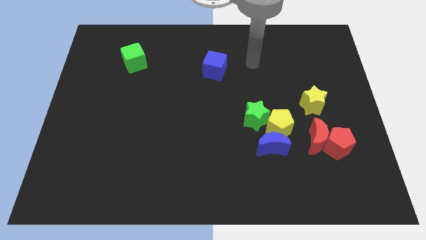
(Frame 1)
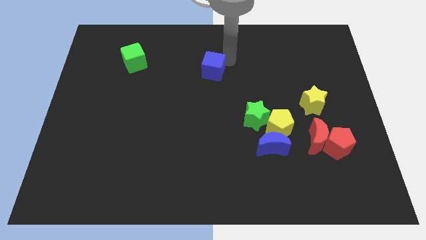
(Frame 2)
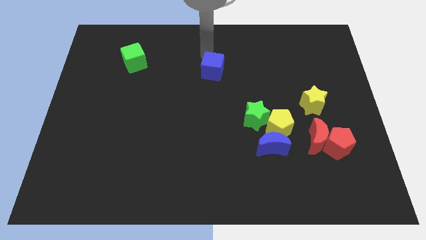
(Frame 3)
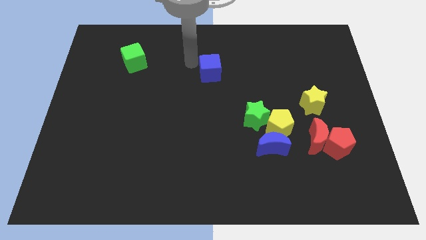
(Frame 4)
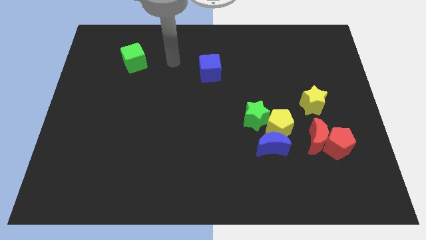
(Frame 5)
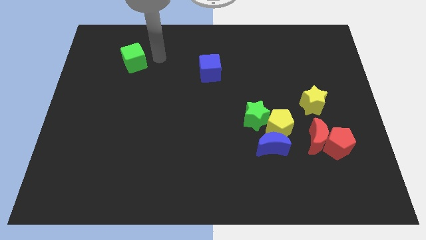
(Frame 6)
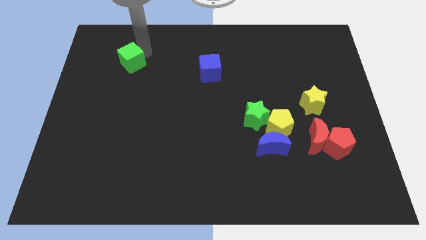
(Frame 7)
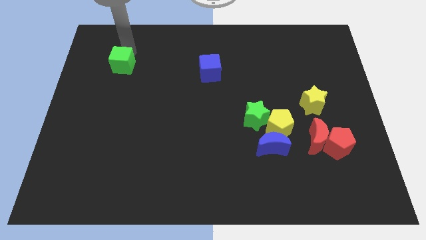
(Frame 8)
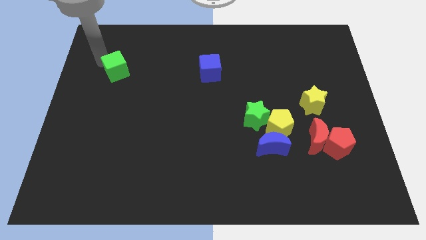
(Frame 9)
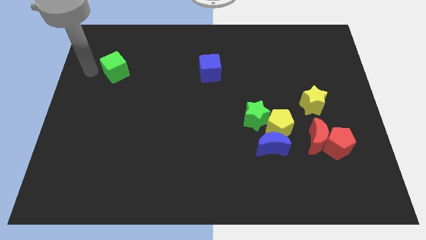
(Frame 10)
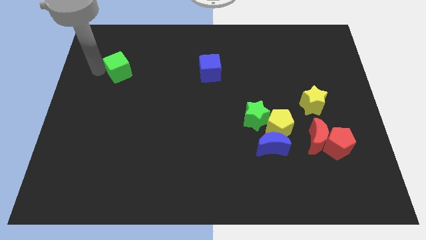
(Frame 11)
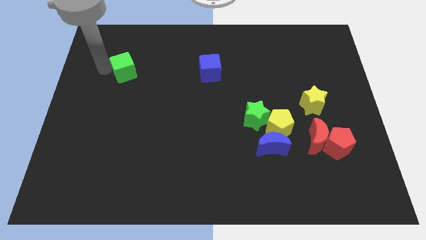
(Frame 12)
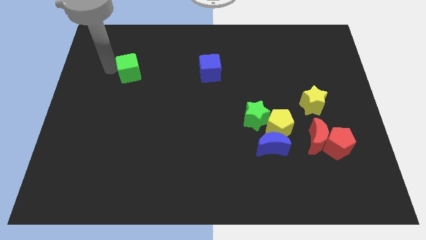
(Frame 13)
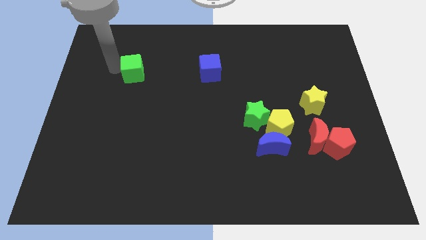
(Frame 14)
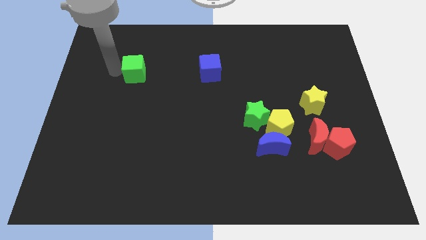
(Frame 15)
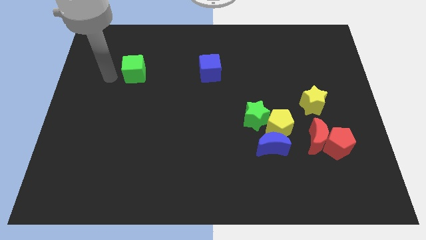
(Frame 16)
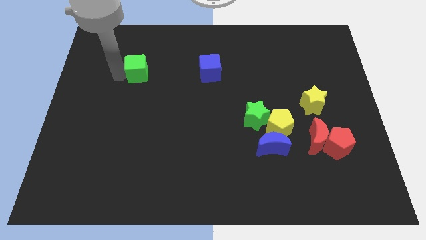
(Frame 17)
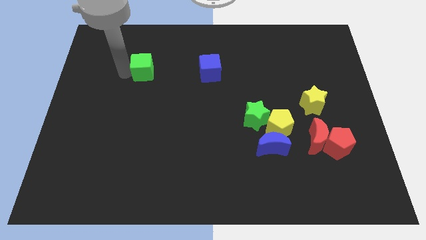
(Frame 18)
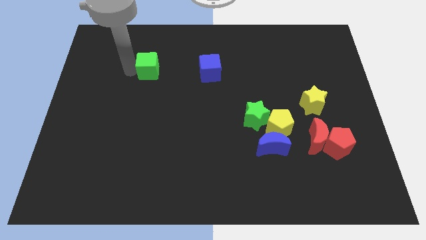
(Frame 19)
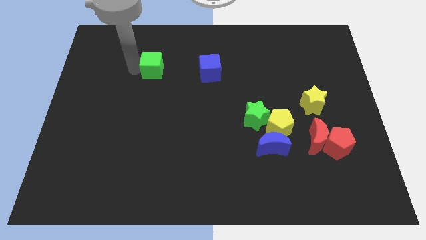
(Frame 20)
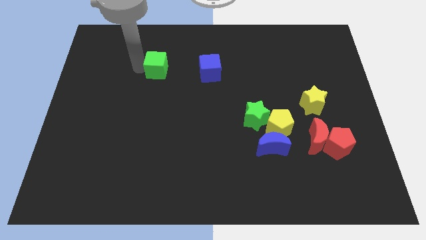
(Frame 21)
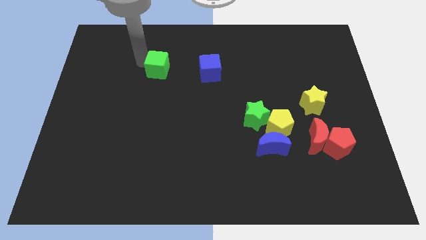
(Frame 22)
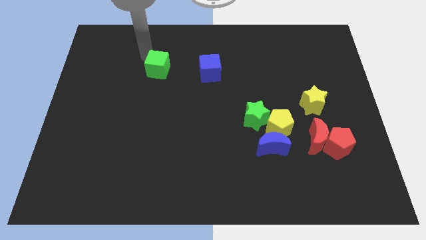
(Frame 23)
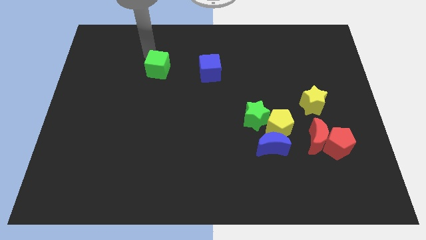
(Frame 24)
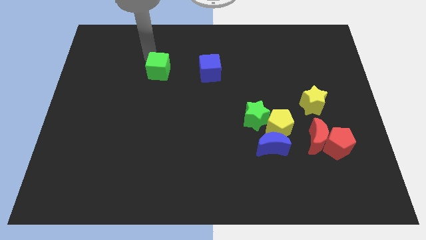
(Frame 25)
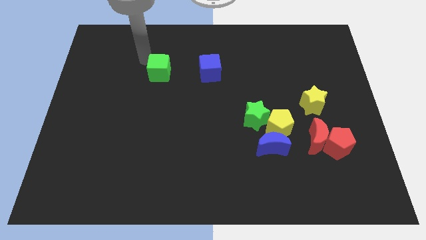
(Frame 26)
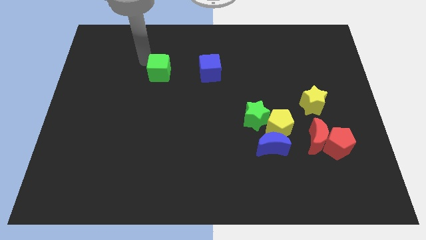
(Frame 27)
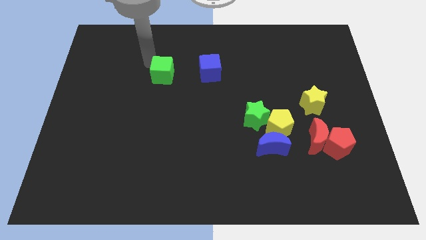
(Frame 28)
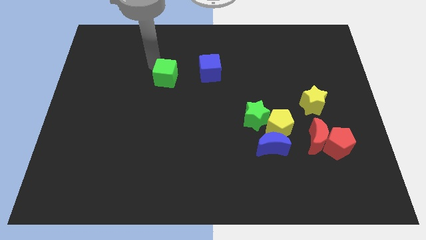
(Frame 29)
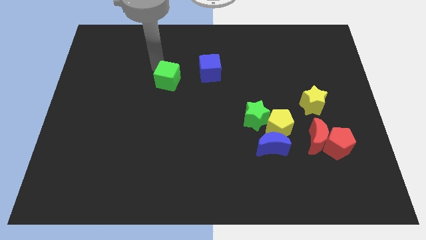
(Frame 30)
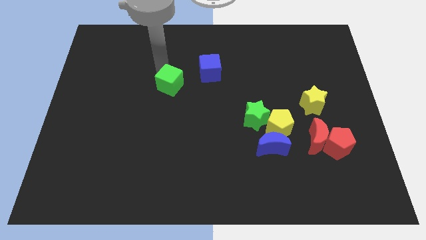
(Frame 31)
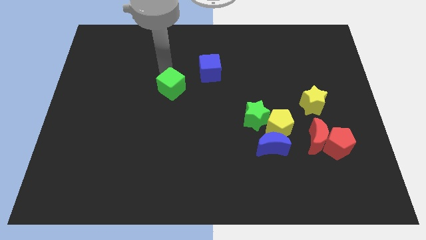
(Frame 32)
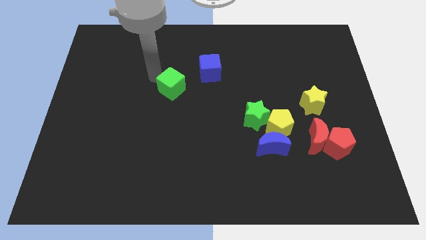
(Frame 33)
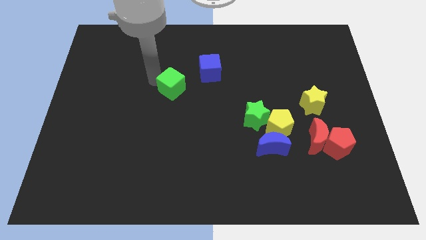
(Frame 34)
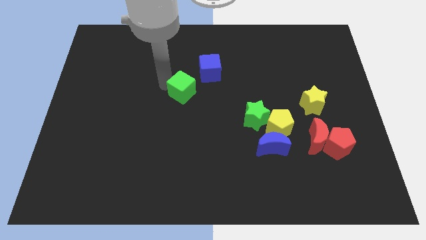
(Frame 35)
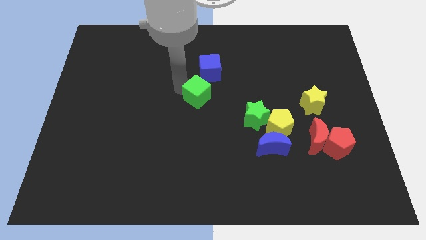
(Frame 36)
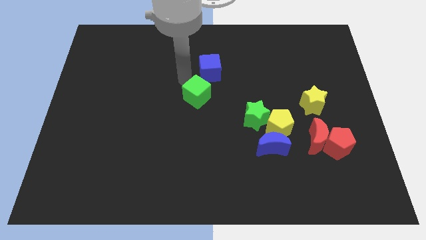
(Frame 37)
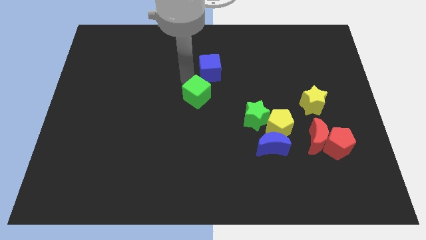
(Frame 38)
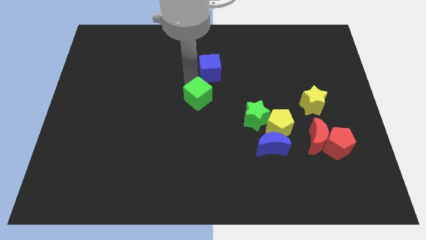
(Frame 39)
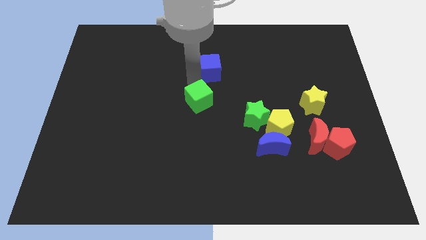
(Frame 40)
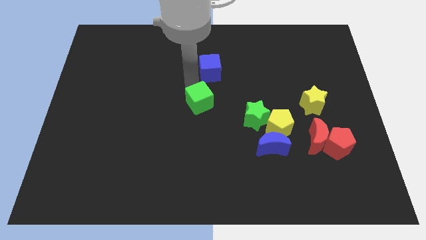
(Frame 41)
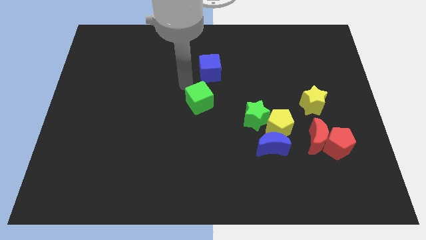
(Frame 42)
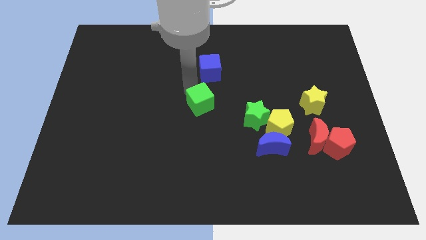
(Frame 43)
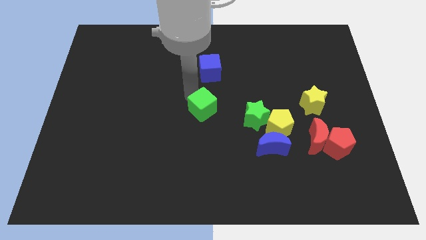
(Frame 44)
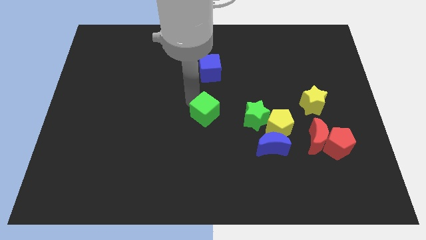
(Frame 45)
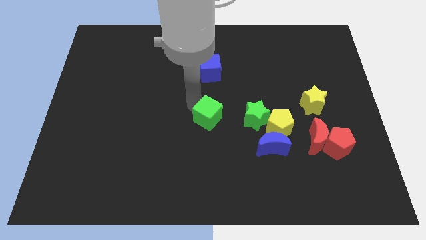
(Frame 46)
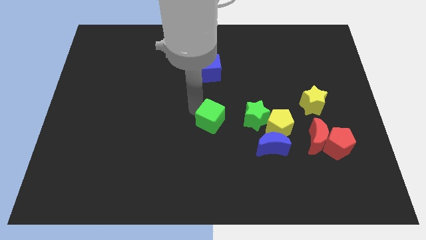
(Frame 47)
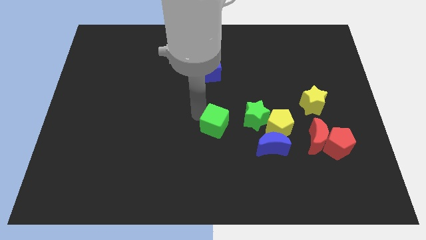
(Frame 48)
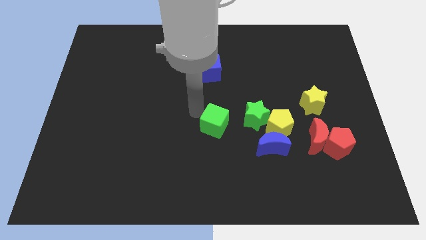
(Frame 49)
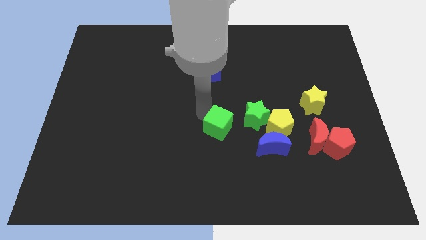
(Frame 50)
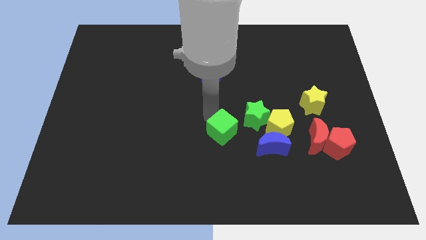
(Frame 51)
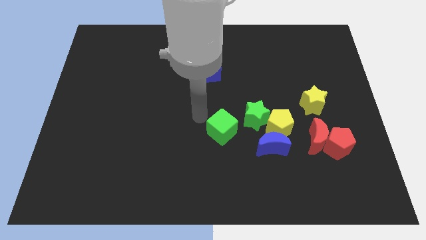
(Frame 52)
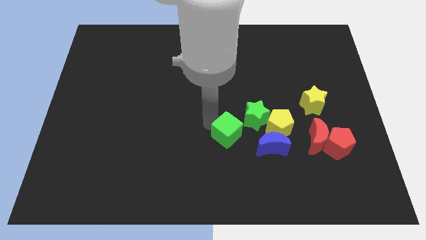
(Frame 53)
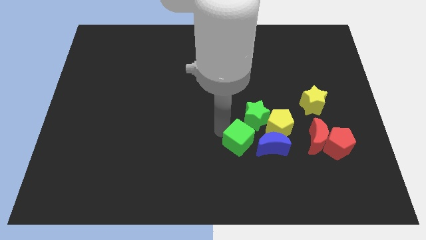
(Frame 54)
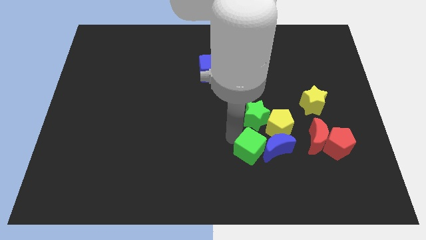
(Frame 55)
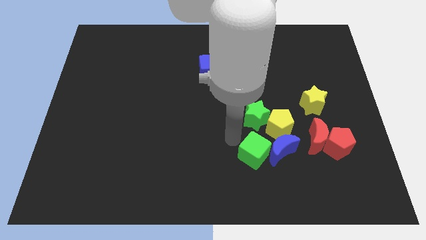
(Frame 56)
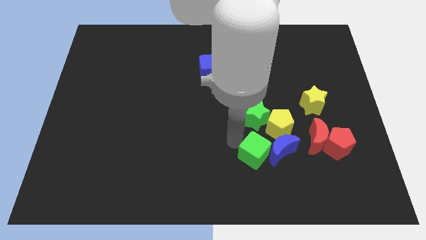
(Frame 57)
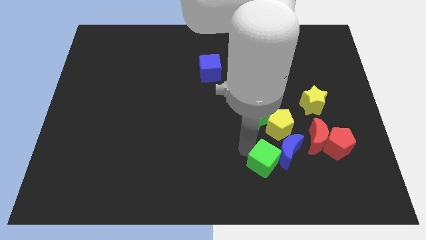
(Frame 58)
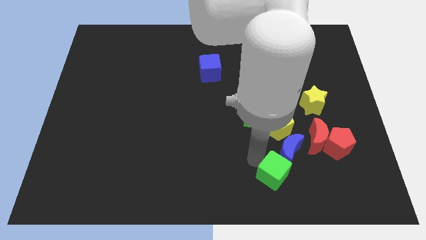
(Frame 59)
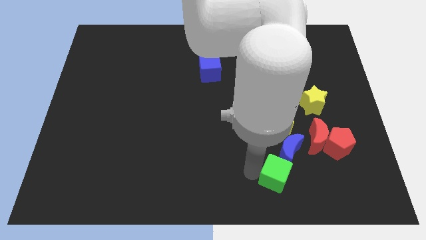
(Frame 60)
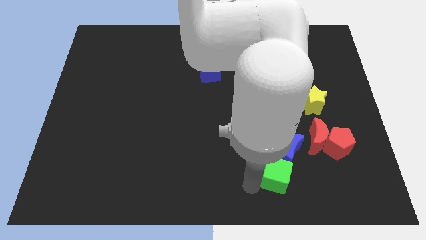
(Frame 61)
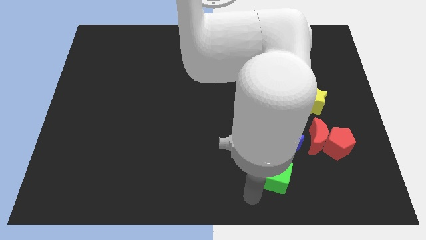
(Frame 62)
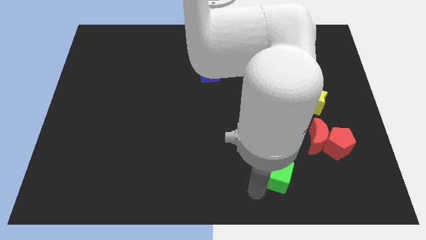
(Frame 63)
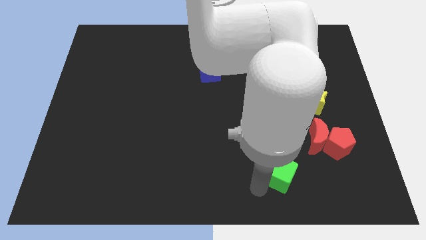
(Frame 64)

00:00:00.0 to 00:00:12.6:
move the green cube diagonally down and to the left of the red moon

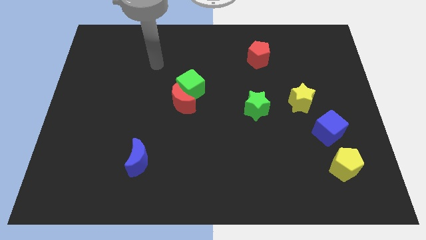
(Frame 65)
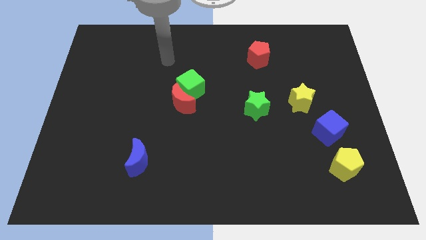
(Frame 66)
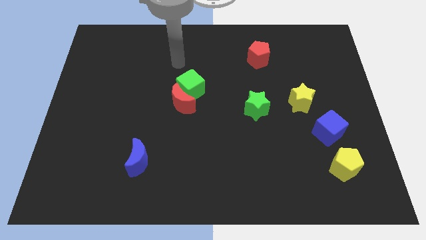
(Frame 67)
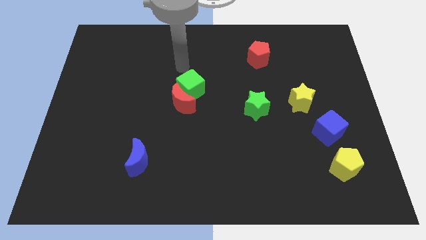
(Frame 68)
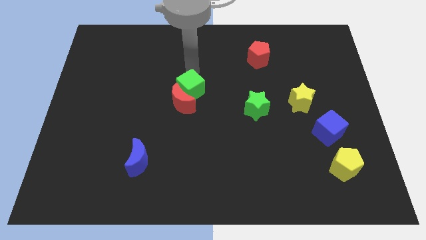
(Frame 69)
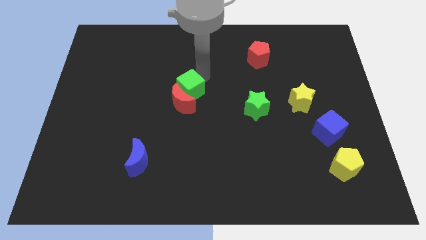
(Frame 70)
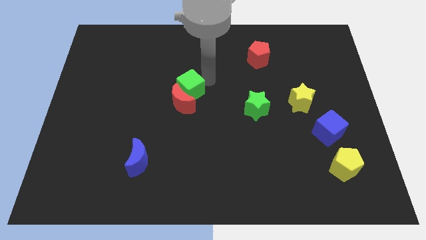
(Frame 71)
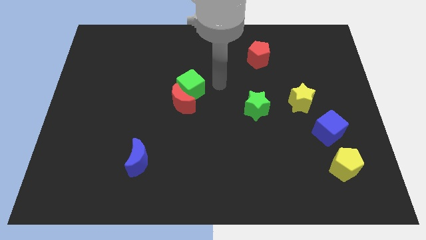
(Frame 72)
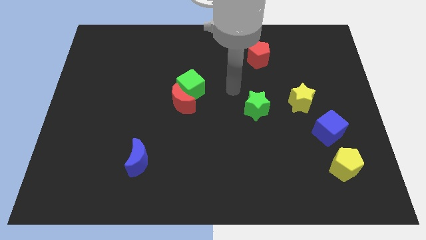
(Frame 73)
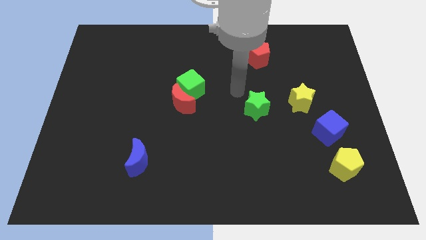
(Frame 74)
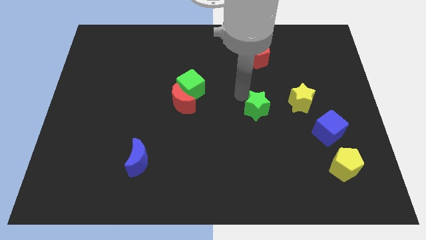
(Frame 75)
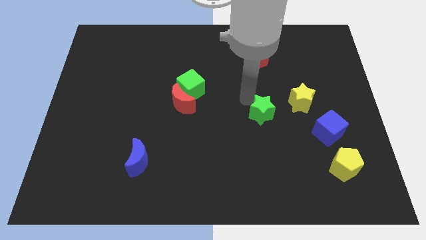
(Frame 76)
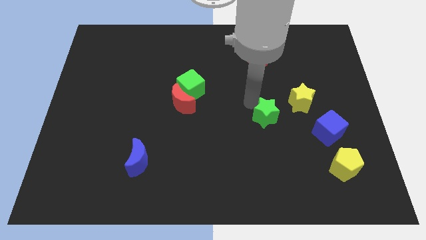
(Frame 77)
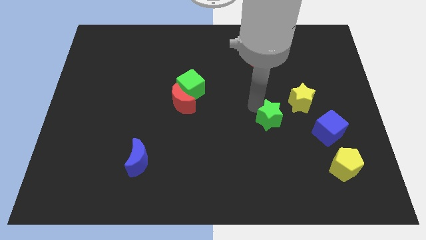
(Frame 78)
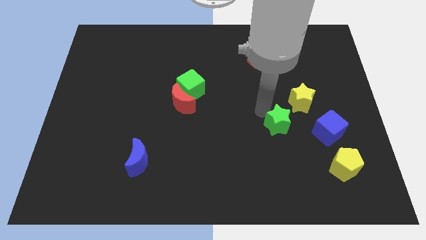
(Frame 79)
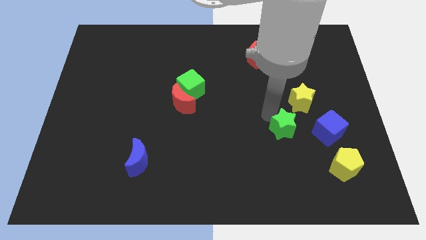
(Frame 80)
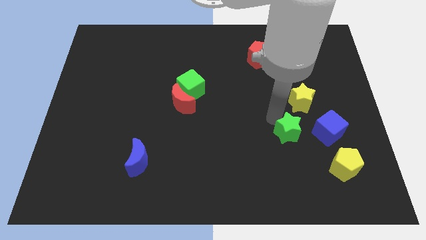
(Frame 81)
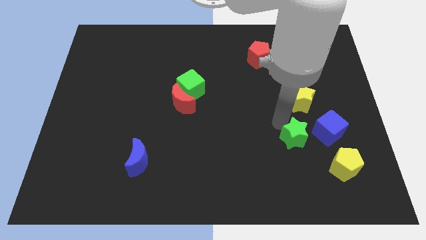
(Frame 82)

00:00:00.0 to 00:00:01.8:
move the green star to the bottom left of the blue cube
